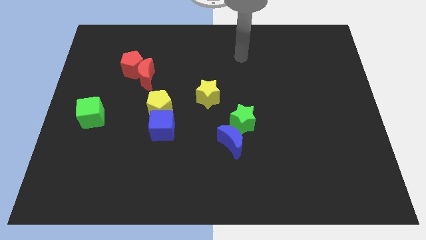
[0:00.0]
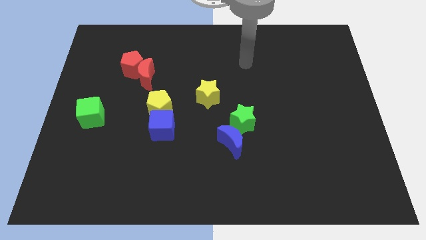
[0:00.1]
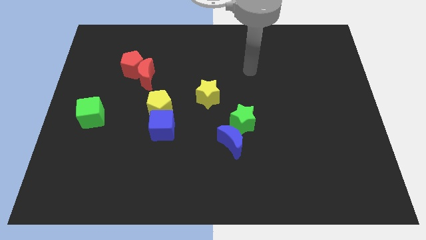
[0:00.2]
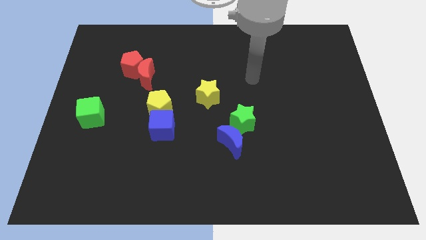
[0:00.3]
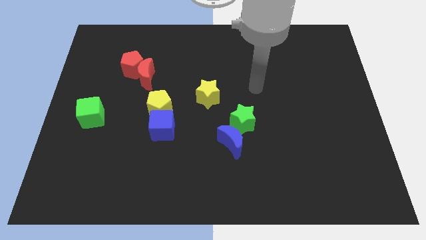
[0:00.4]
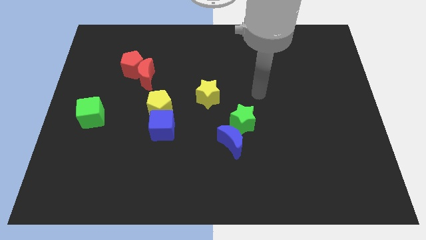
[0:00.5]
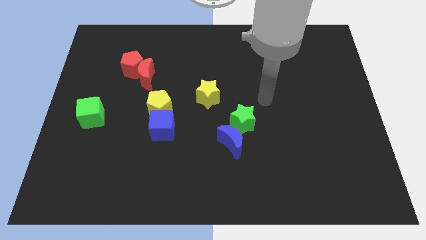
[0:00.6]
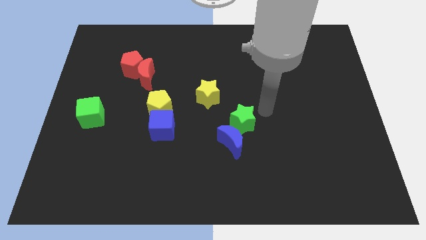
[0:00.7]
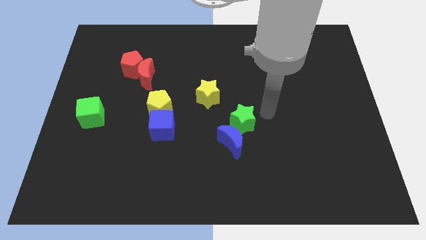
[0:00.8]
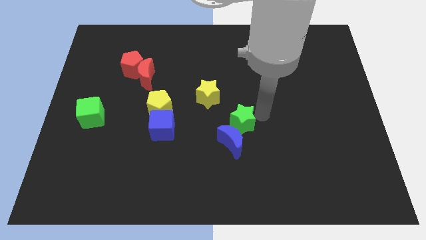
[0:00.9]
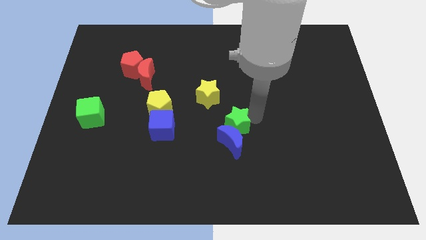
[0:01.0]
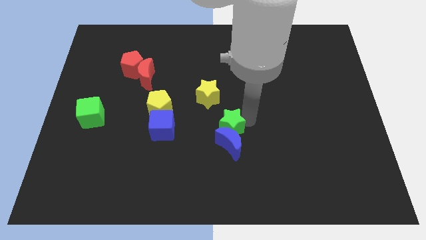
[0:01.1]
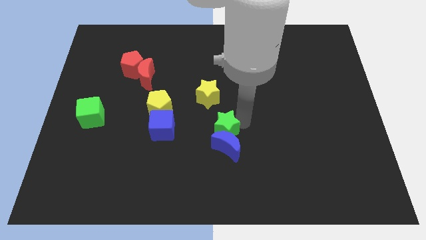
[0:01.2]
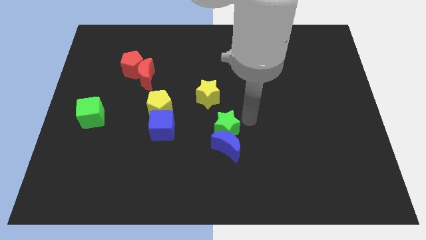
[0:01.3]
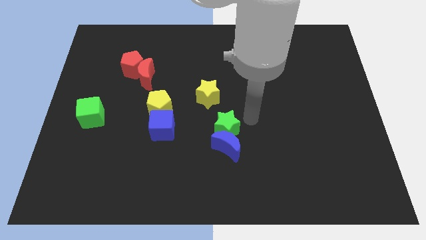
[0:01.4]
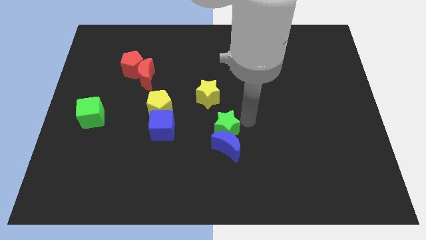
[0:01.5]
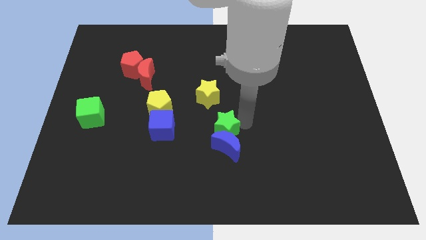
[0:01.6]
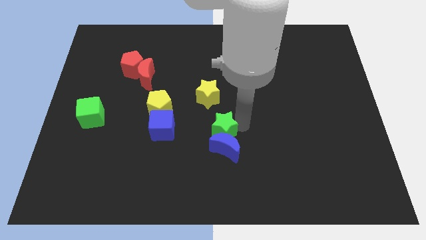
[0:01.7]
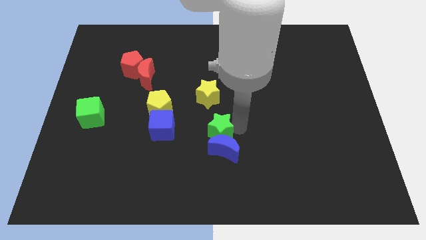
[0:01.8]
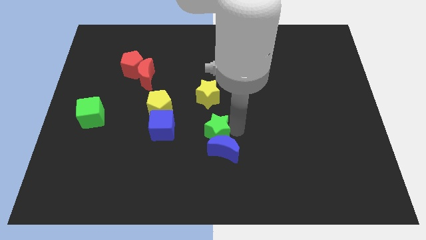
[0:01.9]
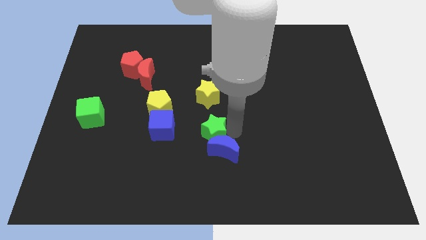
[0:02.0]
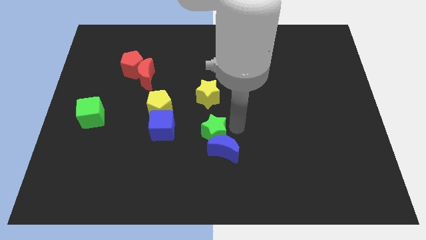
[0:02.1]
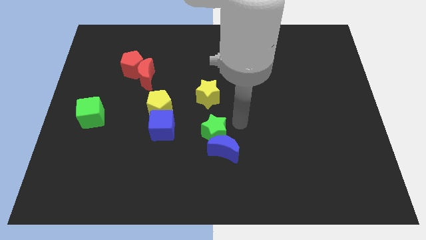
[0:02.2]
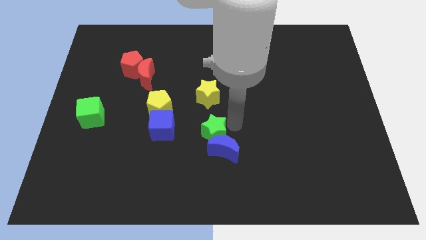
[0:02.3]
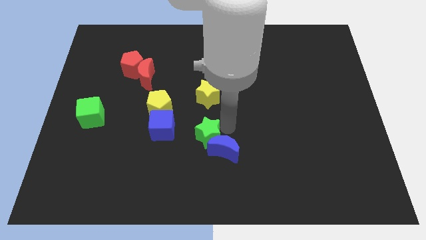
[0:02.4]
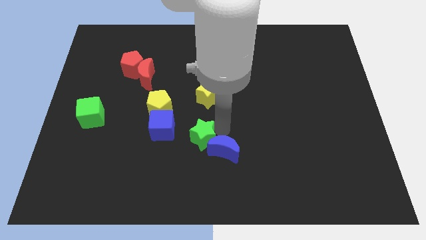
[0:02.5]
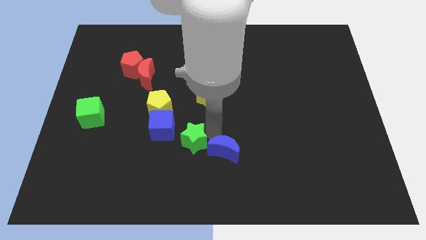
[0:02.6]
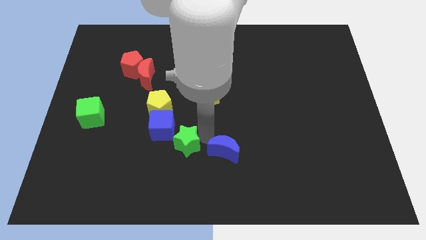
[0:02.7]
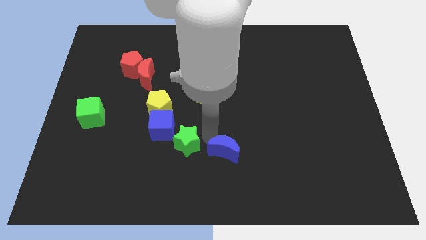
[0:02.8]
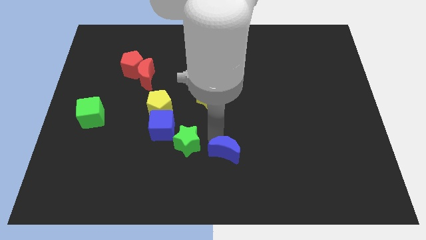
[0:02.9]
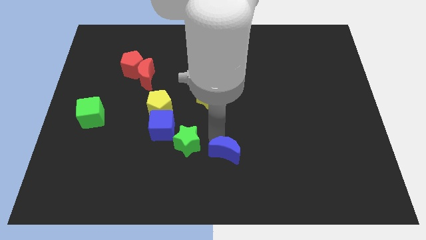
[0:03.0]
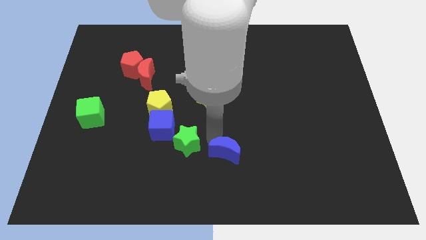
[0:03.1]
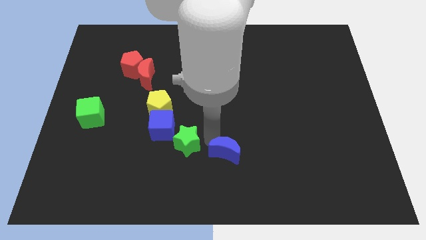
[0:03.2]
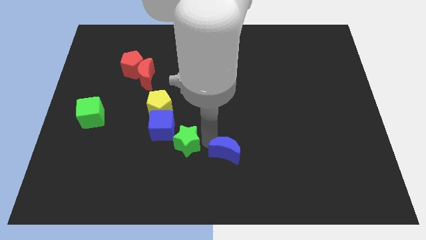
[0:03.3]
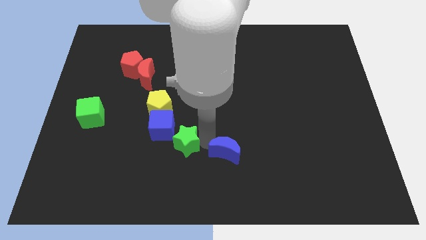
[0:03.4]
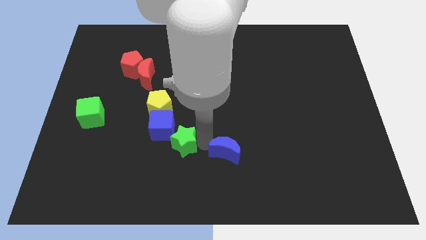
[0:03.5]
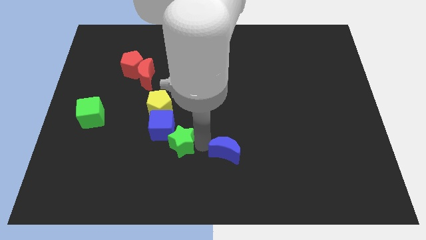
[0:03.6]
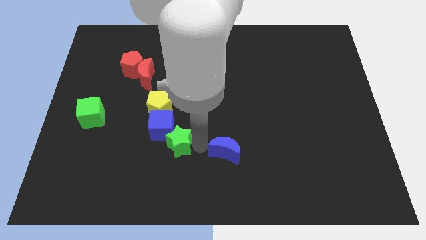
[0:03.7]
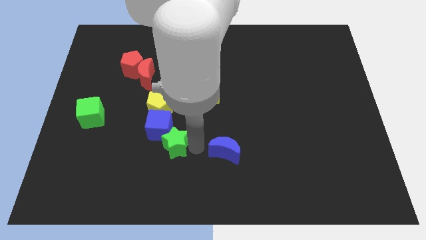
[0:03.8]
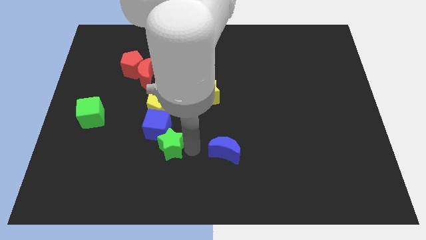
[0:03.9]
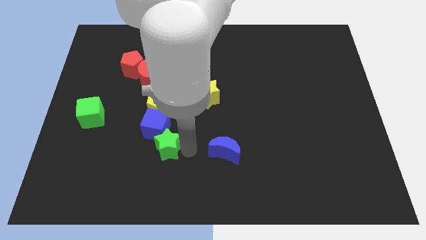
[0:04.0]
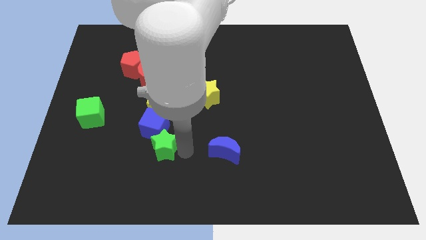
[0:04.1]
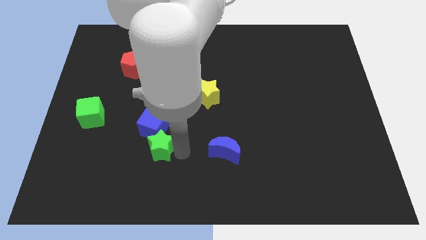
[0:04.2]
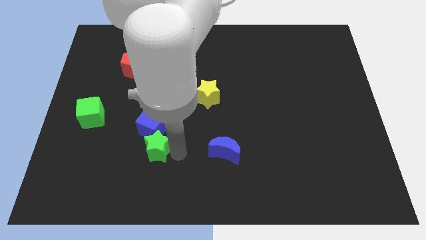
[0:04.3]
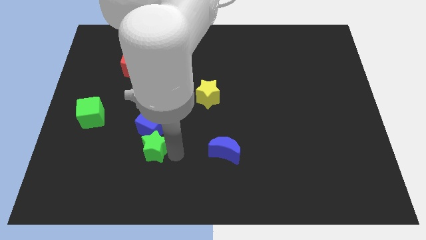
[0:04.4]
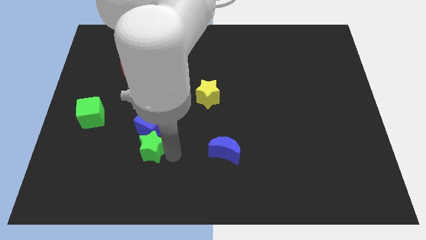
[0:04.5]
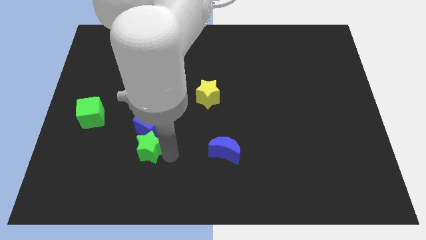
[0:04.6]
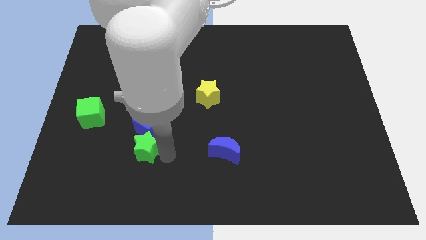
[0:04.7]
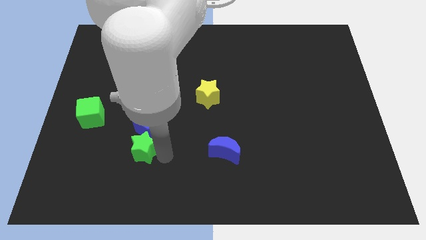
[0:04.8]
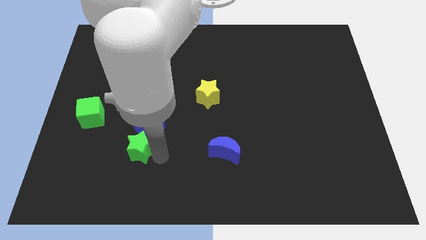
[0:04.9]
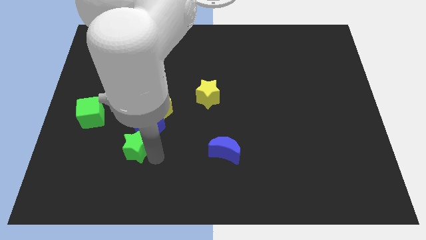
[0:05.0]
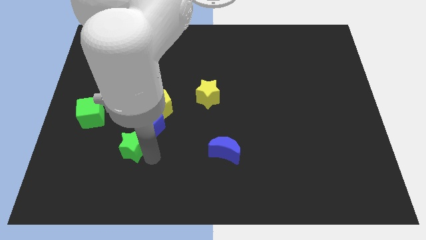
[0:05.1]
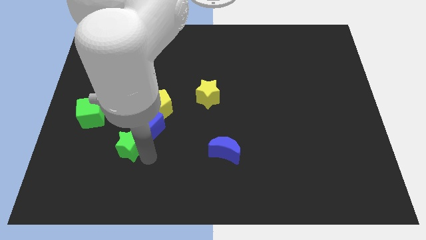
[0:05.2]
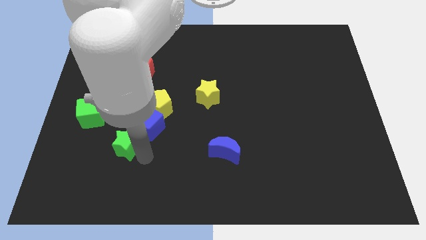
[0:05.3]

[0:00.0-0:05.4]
put the green star to the bottom right side of the green cube

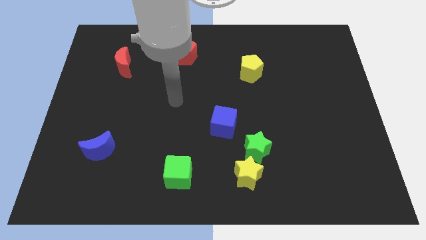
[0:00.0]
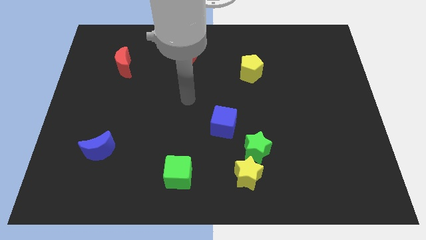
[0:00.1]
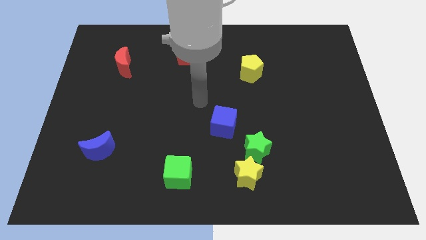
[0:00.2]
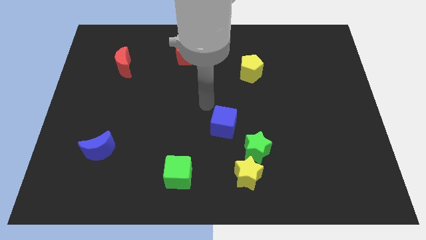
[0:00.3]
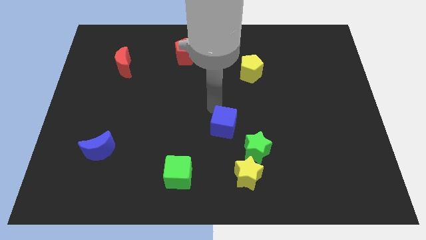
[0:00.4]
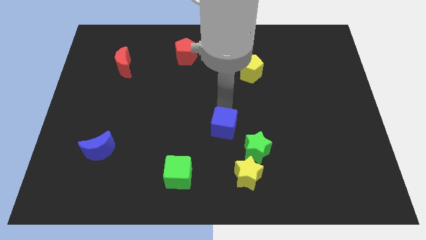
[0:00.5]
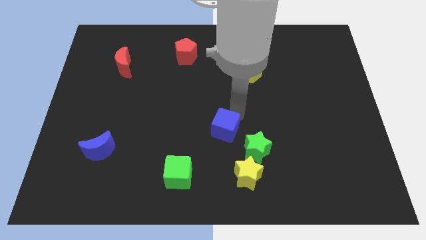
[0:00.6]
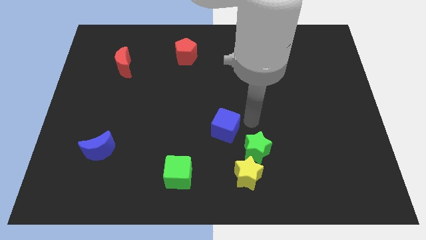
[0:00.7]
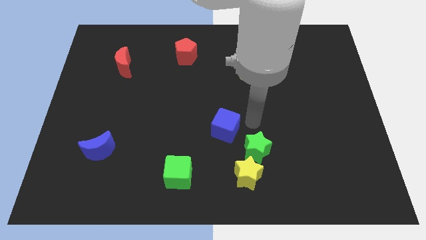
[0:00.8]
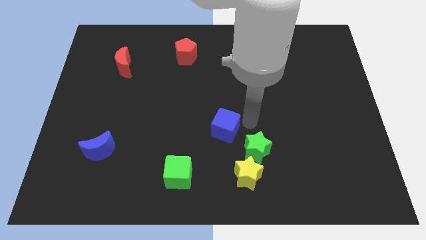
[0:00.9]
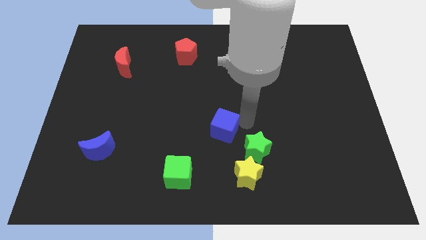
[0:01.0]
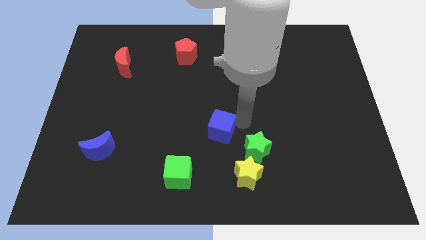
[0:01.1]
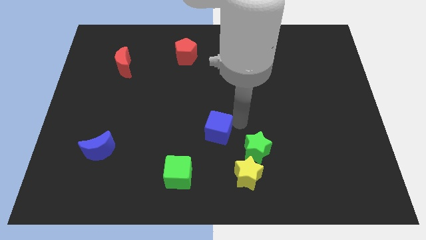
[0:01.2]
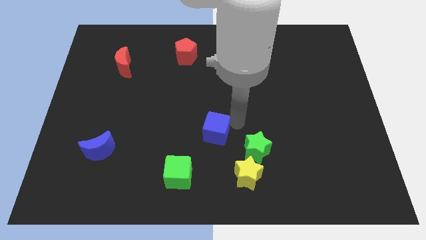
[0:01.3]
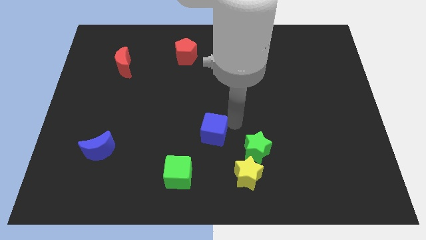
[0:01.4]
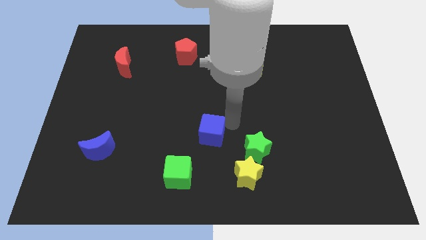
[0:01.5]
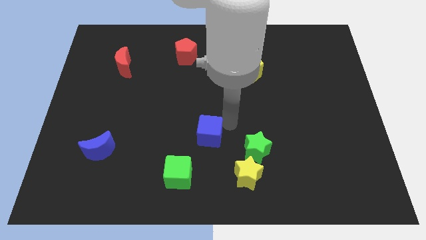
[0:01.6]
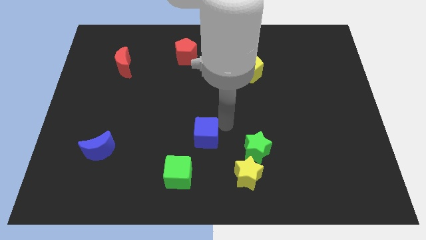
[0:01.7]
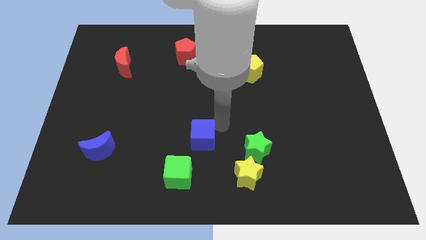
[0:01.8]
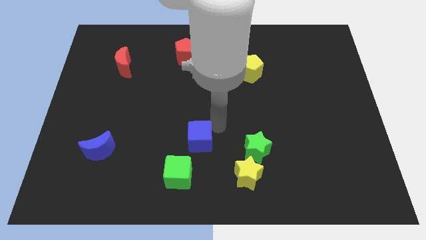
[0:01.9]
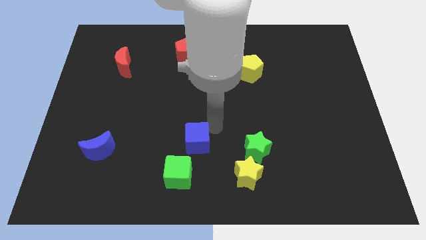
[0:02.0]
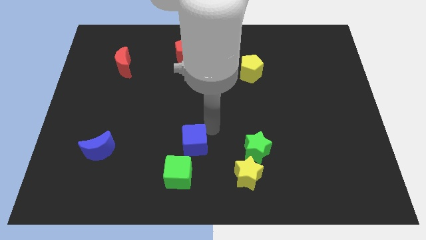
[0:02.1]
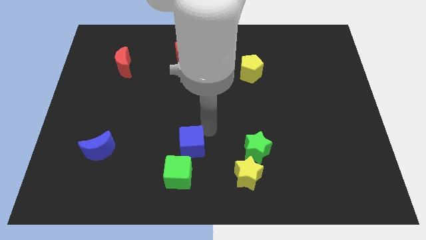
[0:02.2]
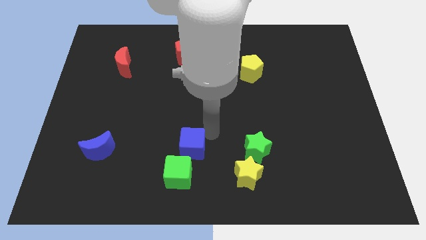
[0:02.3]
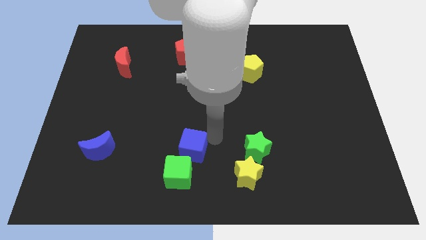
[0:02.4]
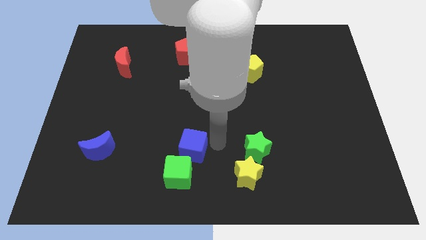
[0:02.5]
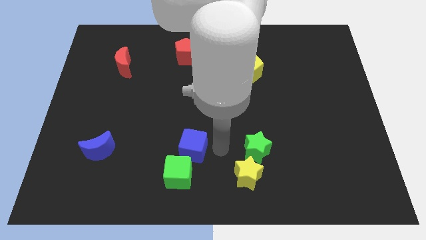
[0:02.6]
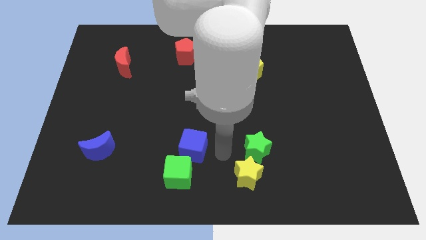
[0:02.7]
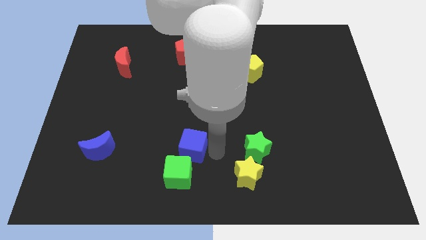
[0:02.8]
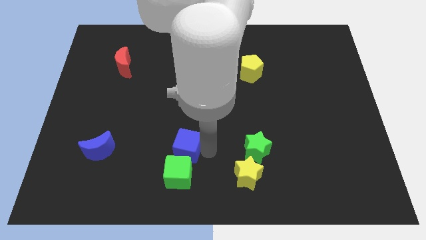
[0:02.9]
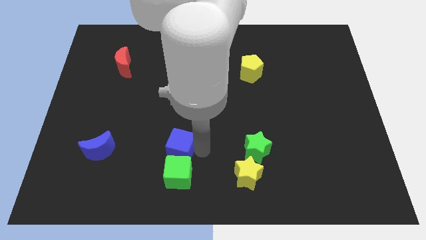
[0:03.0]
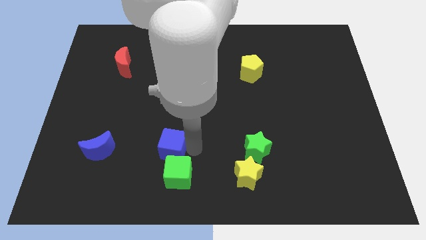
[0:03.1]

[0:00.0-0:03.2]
slide the blue cube right of the blue moon
